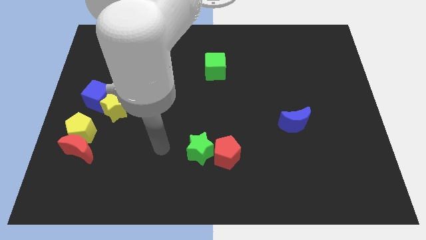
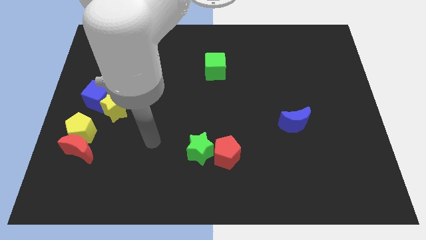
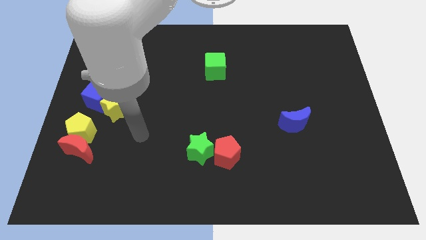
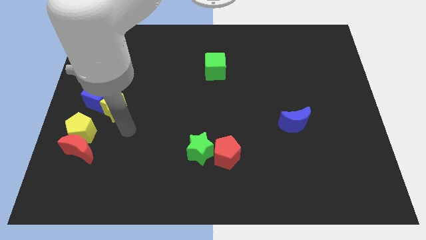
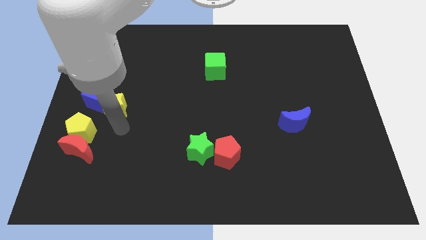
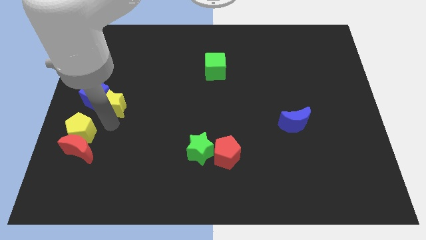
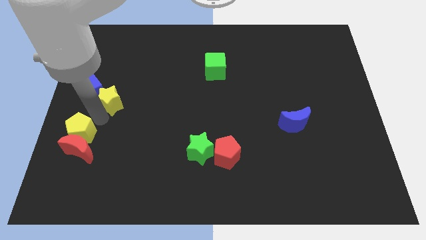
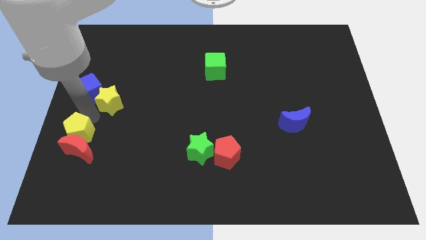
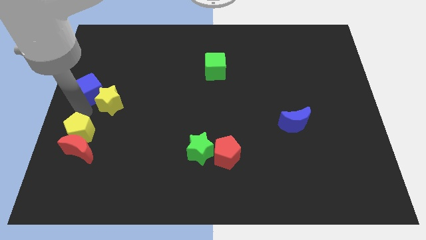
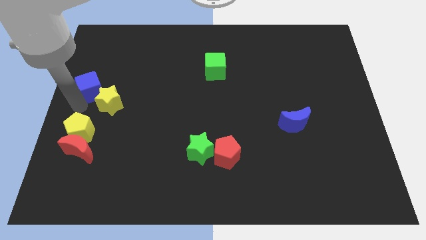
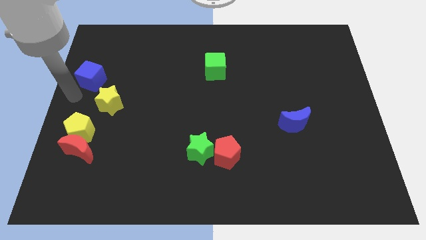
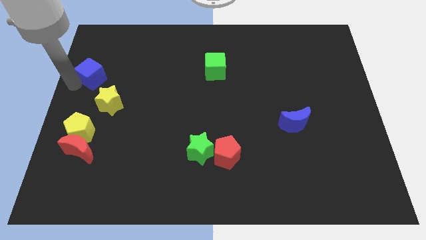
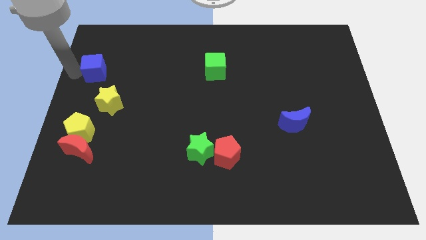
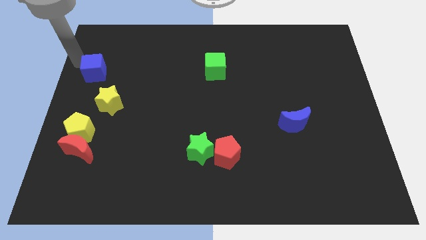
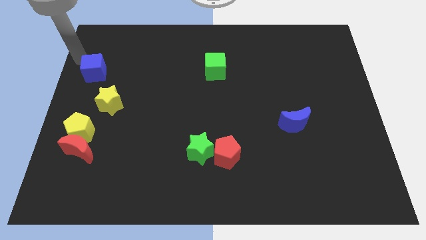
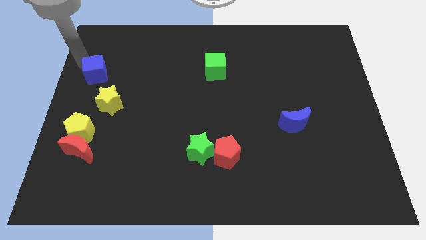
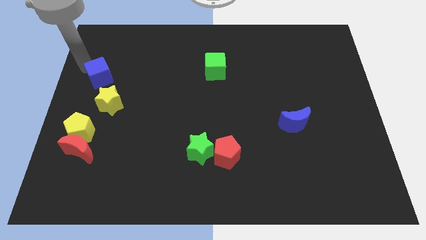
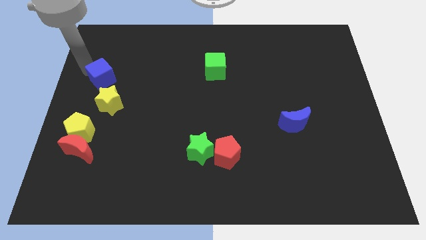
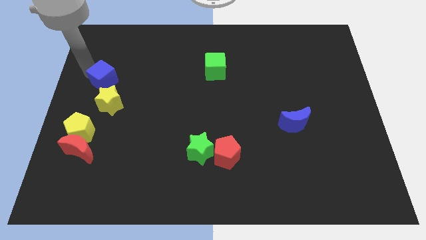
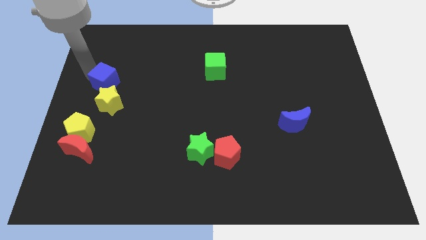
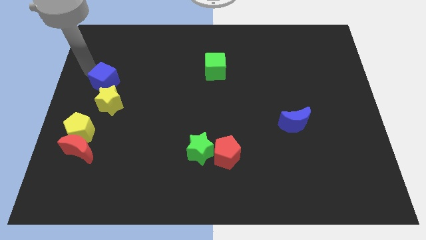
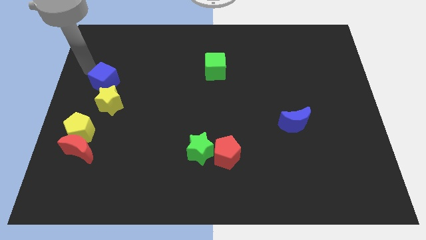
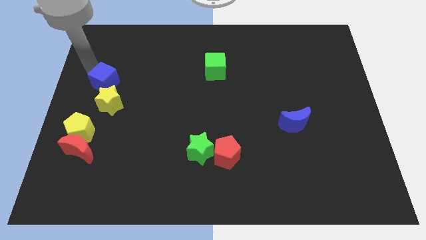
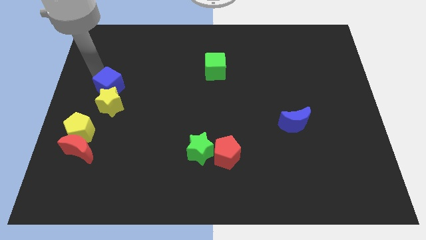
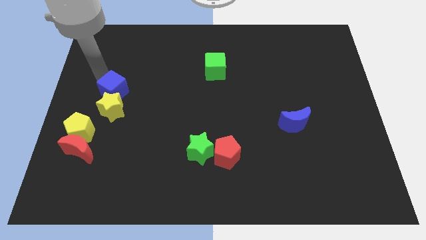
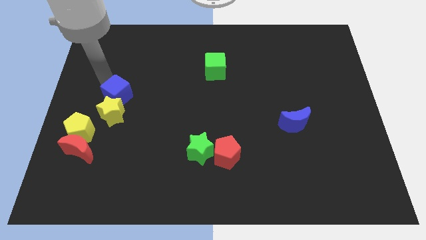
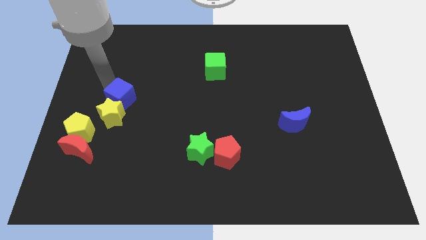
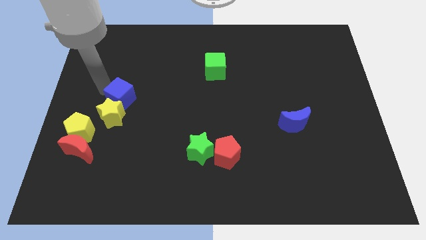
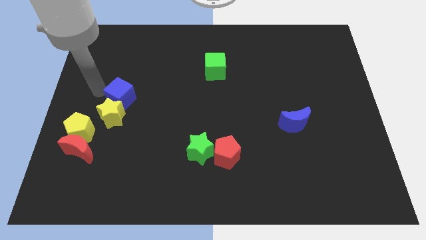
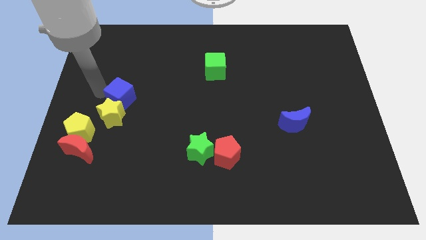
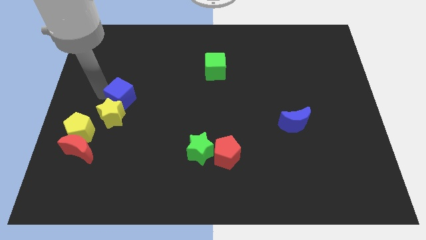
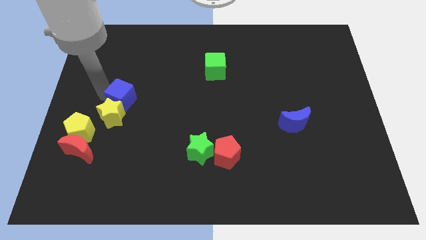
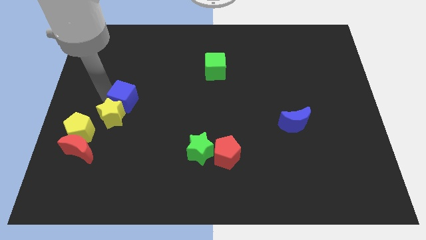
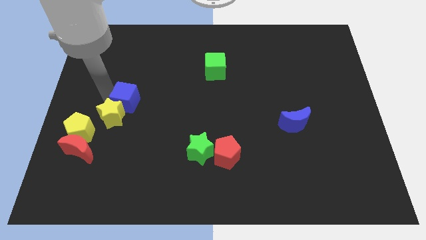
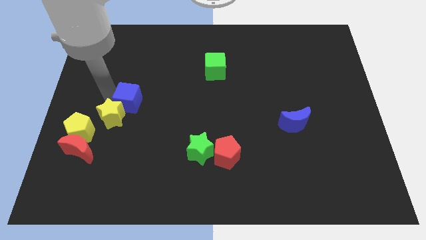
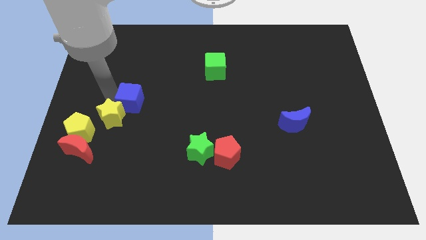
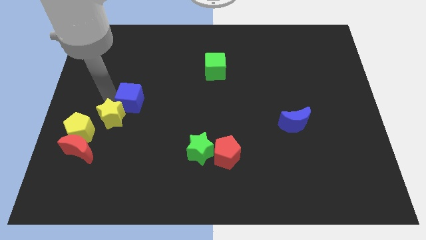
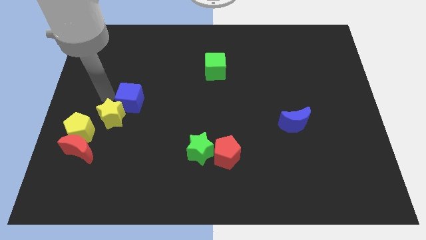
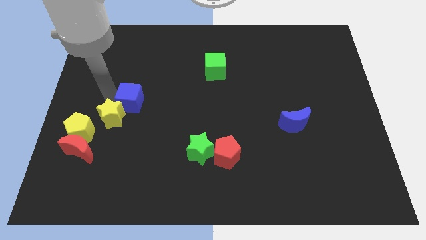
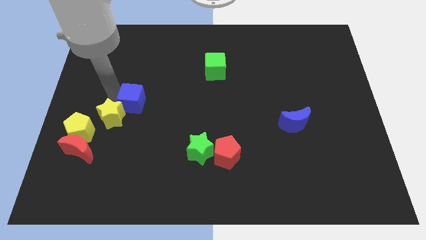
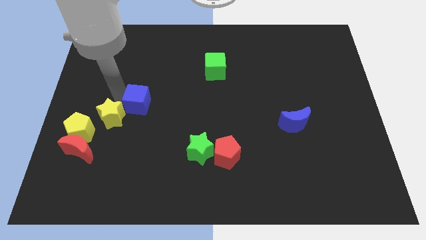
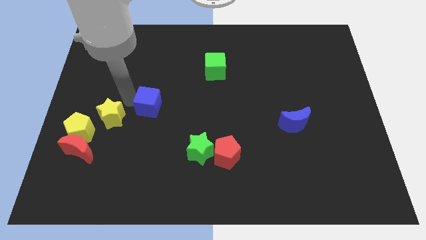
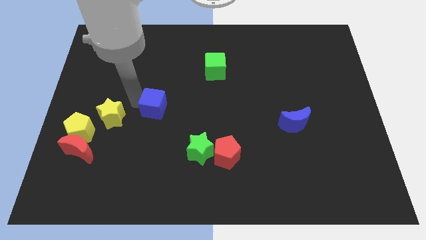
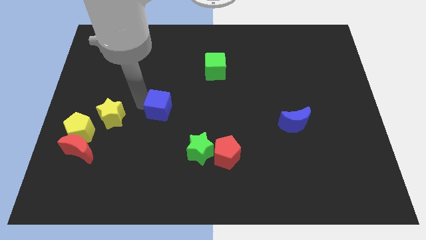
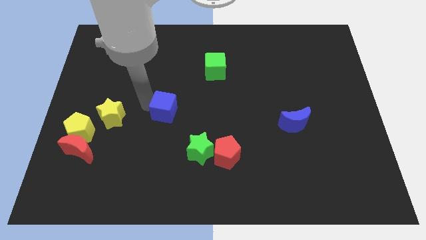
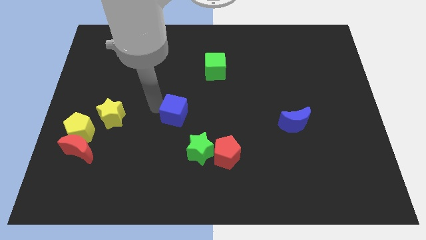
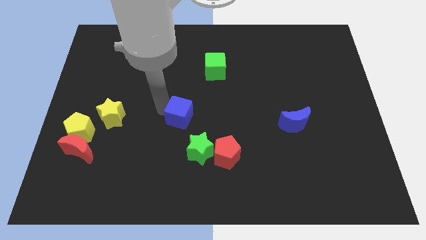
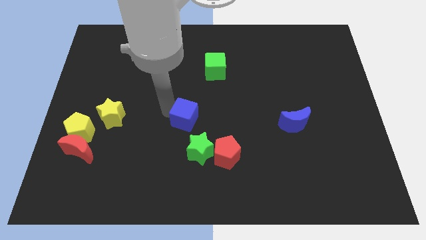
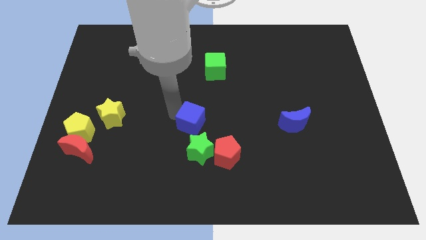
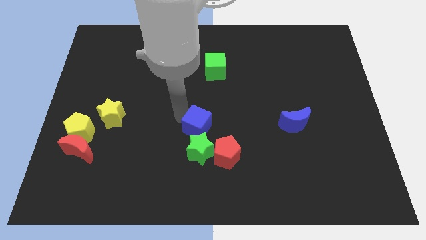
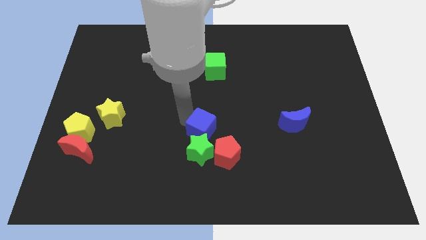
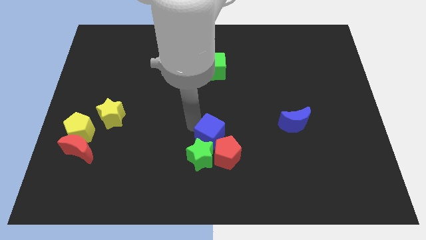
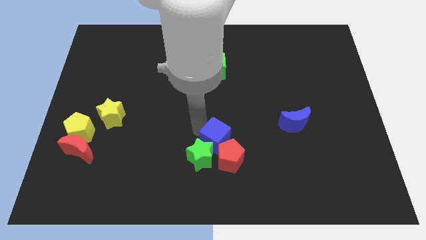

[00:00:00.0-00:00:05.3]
push the blue cube to the right of the green star

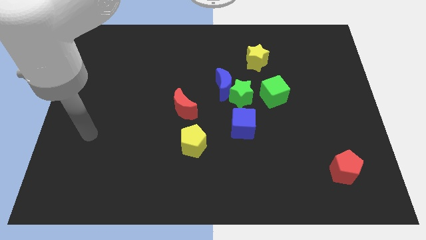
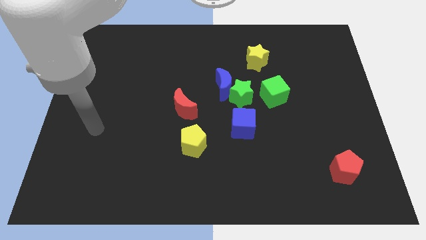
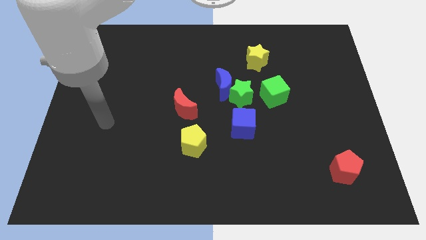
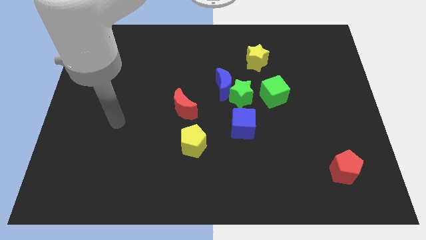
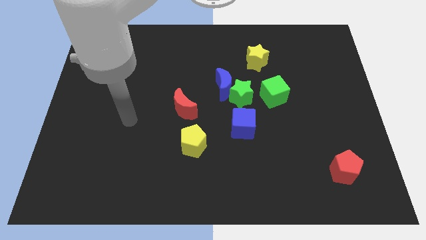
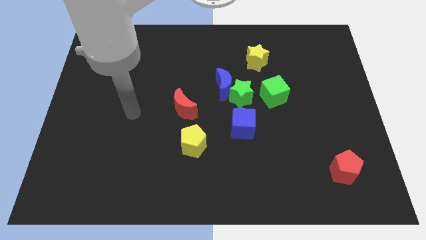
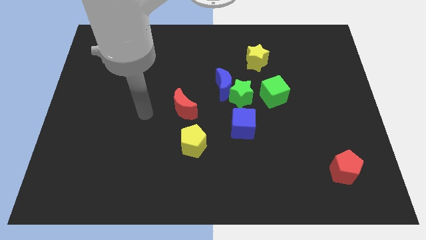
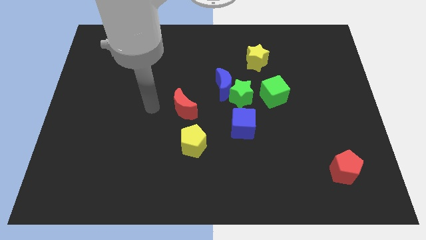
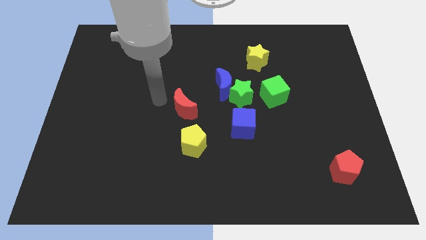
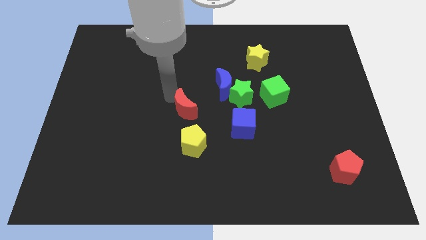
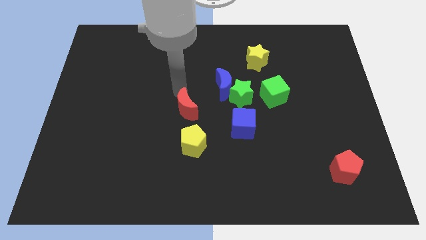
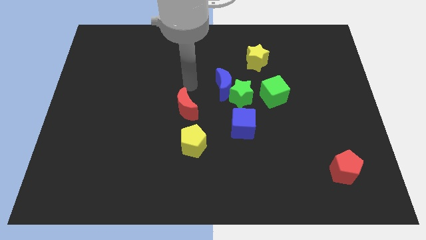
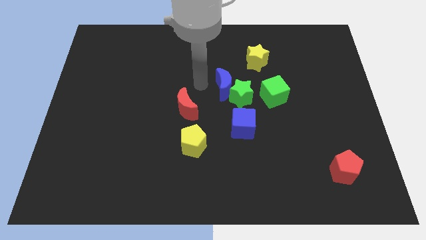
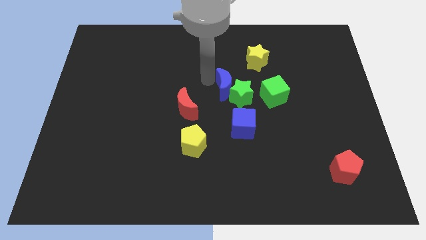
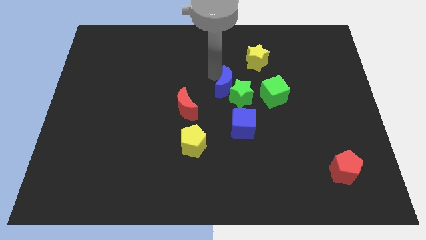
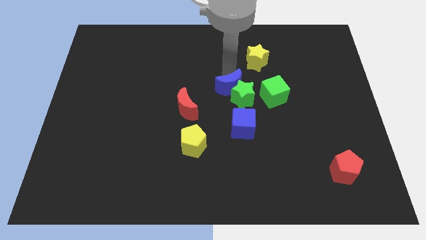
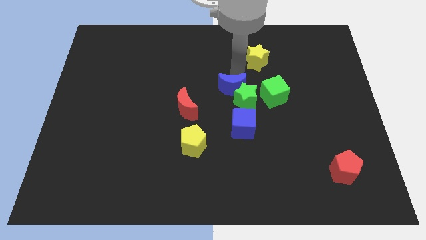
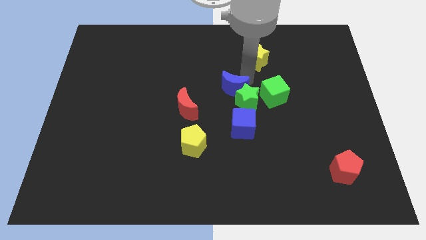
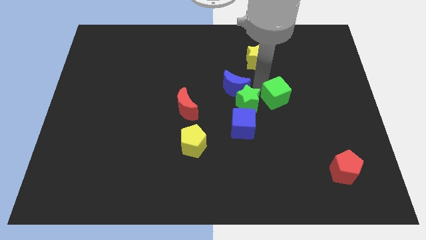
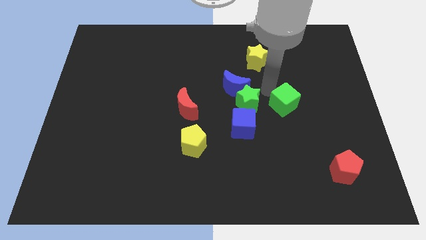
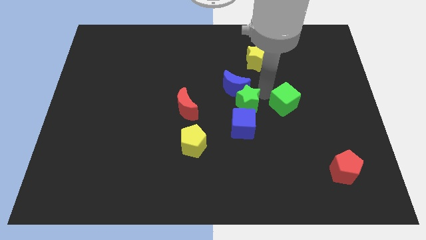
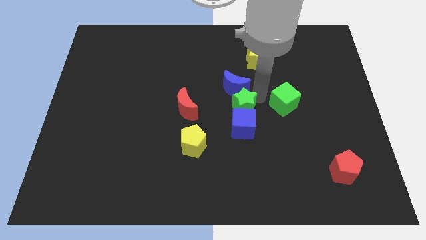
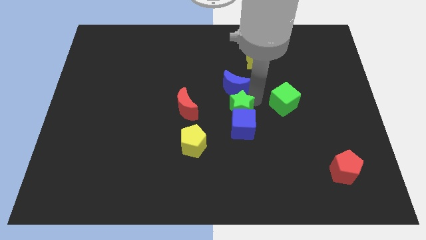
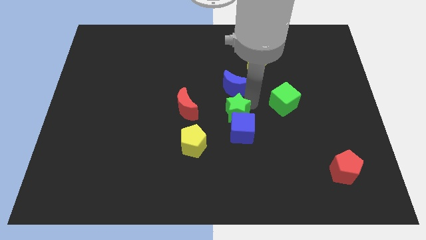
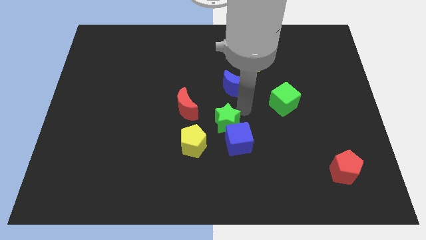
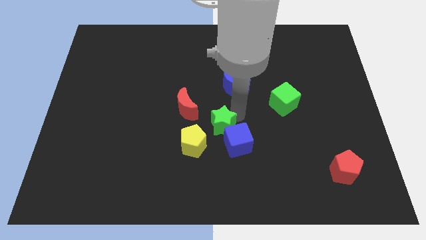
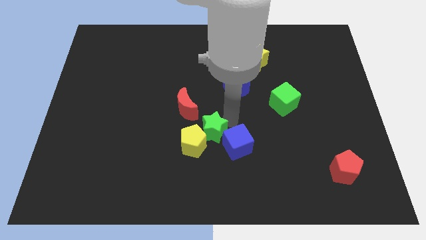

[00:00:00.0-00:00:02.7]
move the green star to the left of the blue cube
